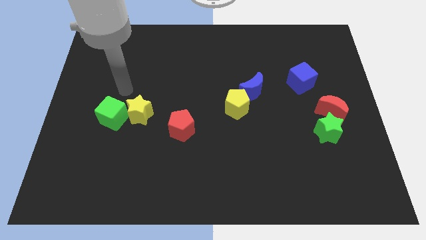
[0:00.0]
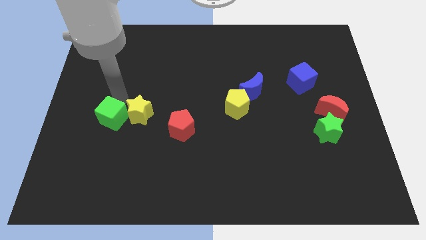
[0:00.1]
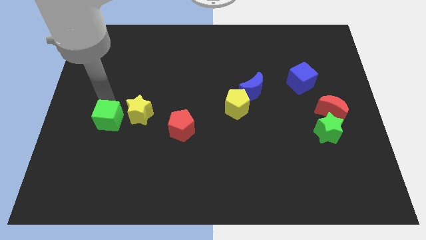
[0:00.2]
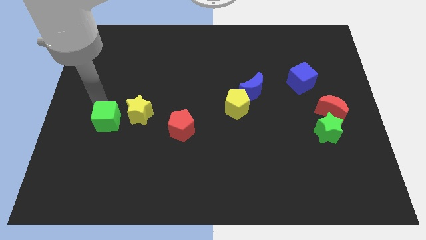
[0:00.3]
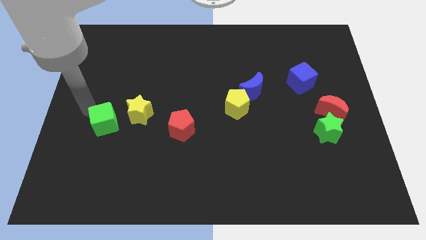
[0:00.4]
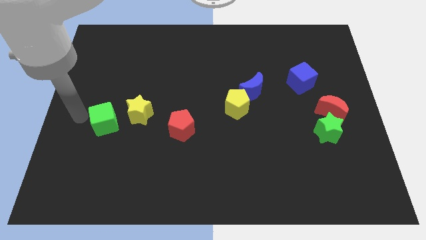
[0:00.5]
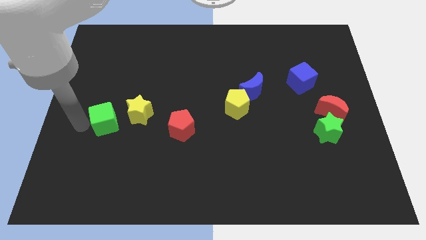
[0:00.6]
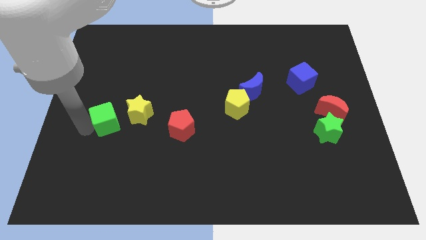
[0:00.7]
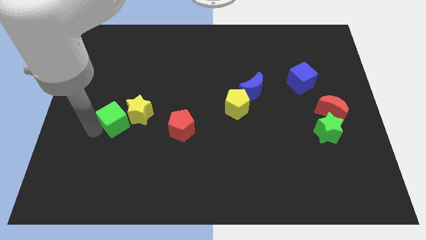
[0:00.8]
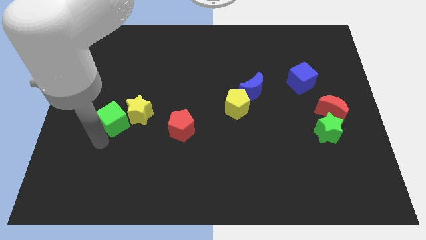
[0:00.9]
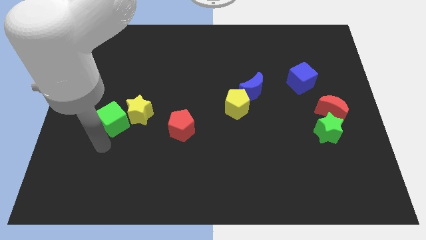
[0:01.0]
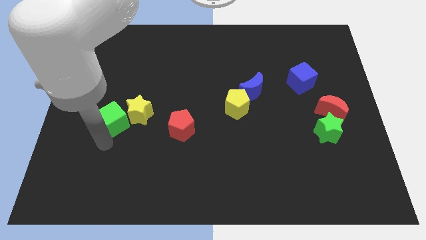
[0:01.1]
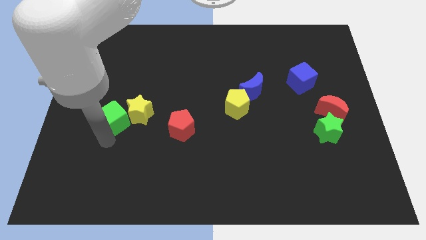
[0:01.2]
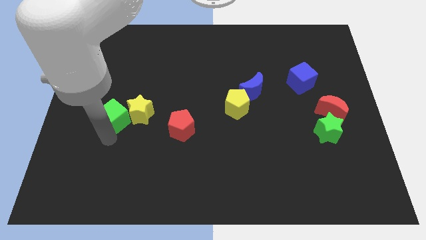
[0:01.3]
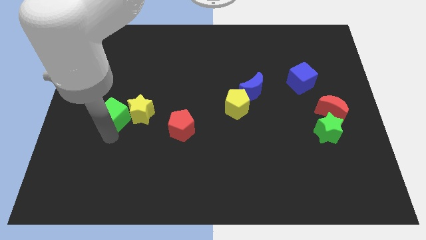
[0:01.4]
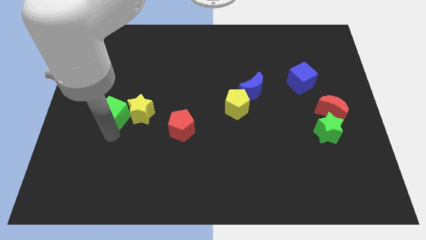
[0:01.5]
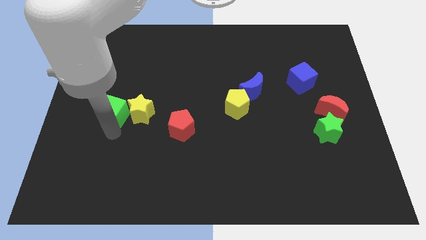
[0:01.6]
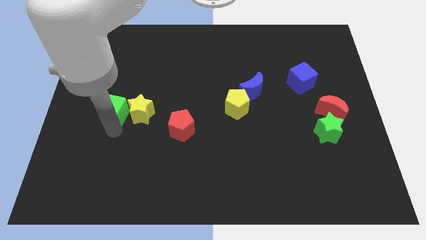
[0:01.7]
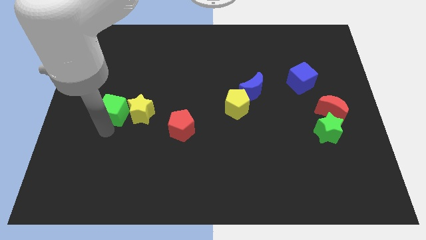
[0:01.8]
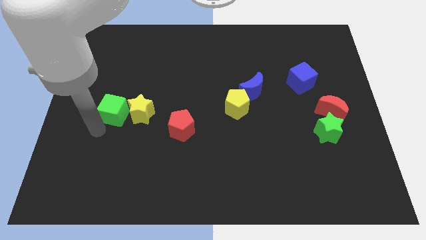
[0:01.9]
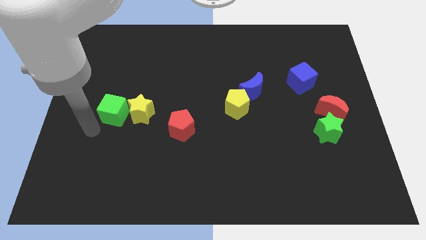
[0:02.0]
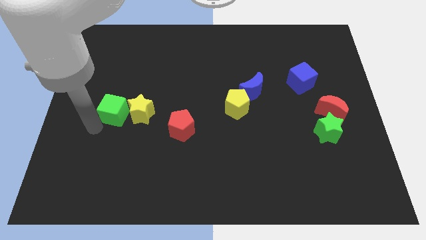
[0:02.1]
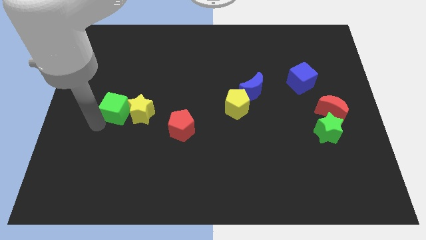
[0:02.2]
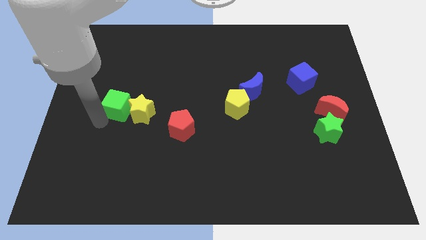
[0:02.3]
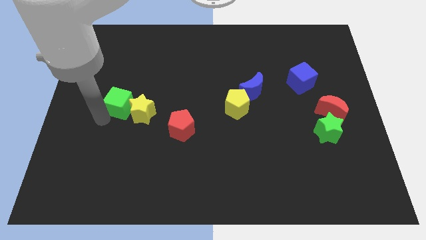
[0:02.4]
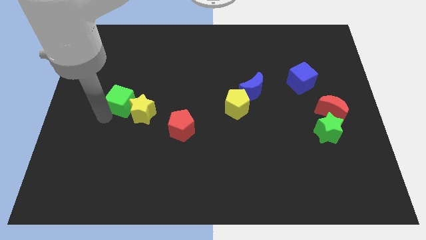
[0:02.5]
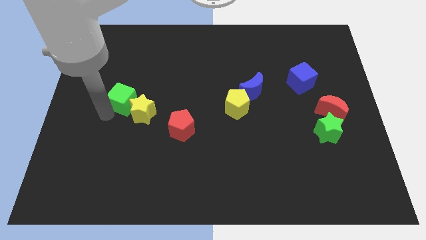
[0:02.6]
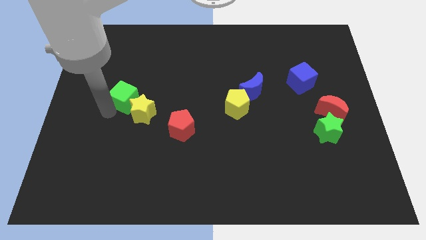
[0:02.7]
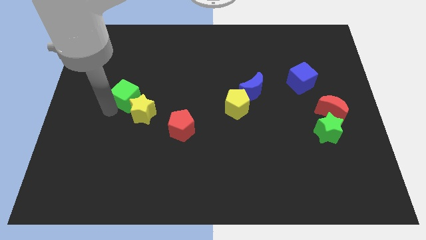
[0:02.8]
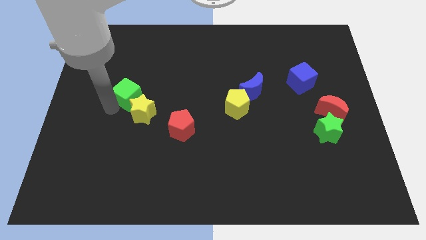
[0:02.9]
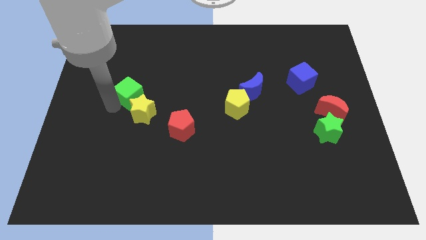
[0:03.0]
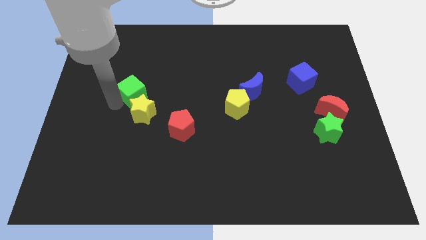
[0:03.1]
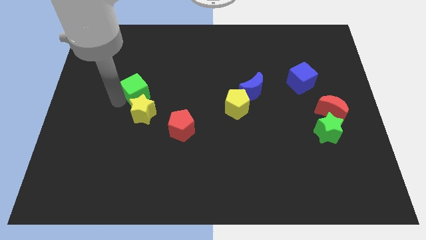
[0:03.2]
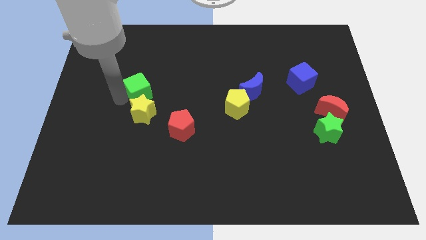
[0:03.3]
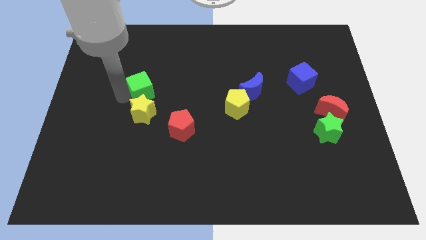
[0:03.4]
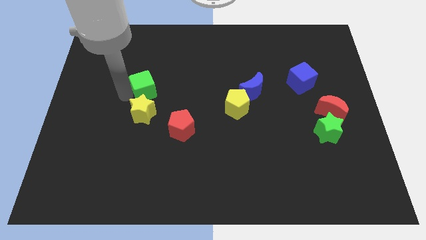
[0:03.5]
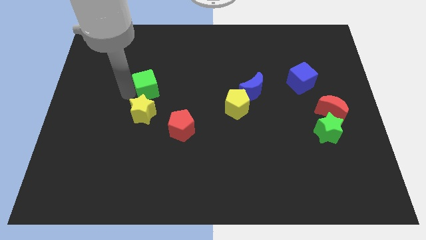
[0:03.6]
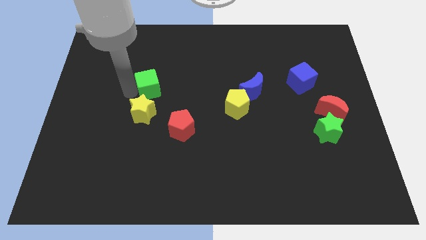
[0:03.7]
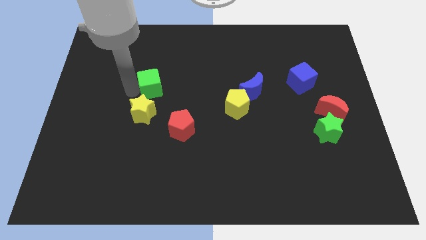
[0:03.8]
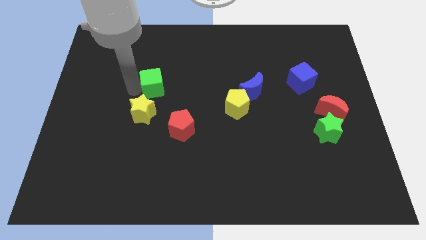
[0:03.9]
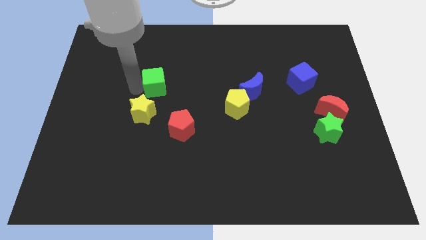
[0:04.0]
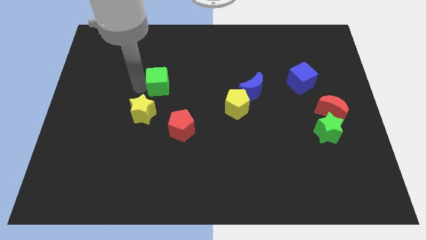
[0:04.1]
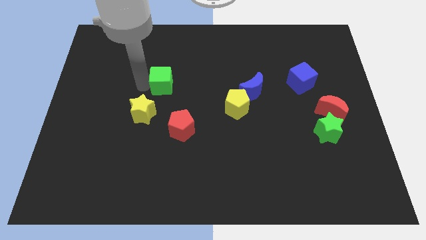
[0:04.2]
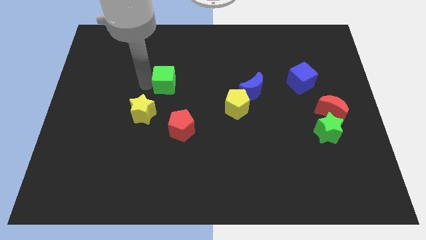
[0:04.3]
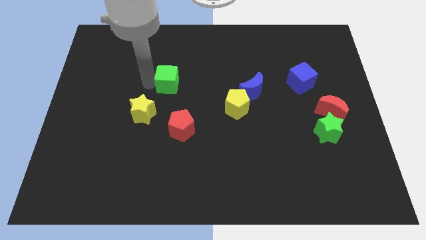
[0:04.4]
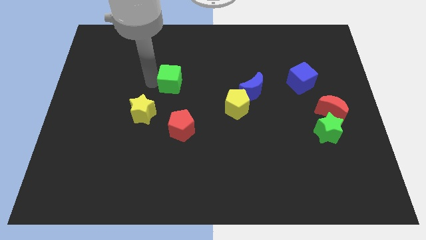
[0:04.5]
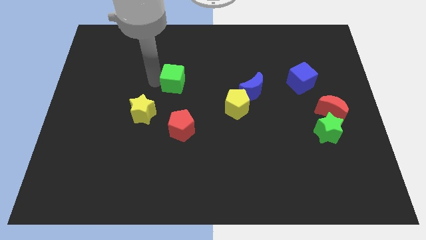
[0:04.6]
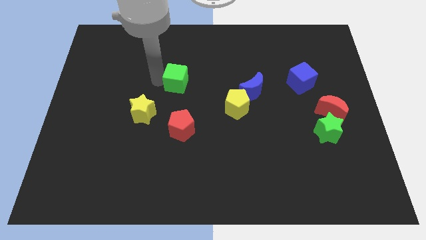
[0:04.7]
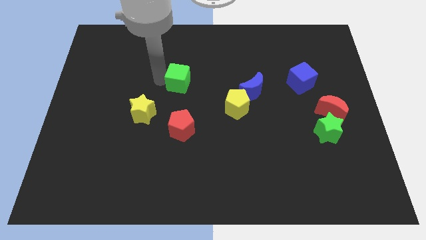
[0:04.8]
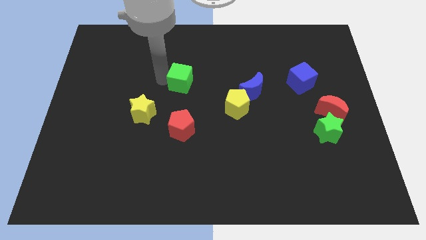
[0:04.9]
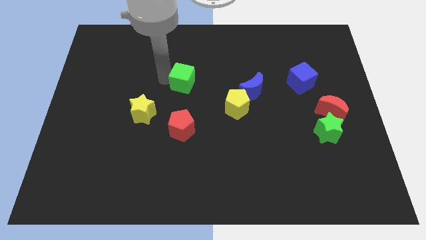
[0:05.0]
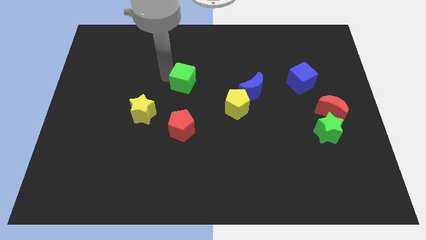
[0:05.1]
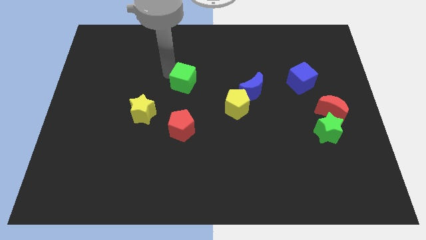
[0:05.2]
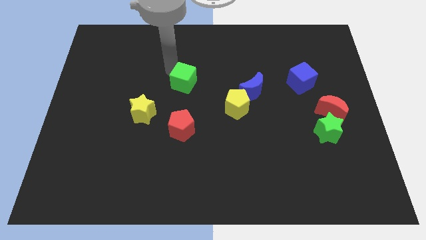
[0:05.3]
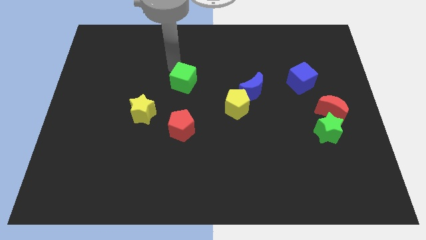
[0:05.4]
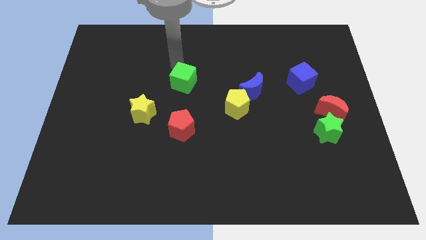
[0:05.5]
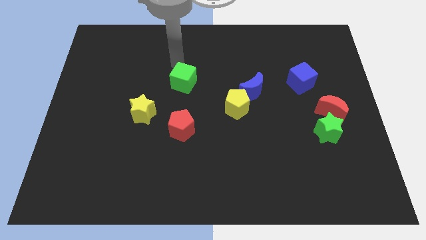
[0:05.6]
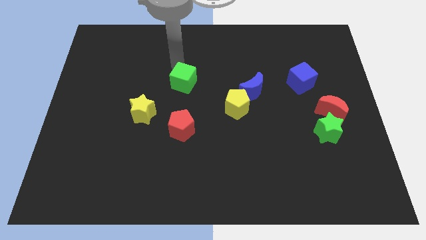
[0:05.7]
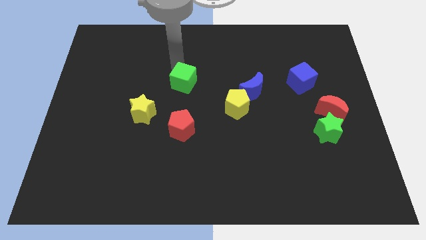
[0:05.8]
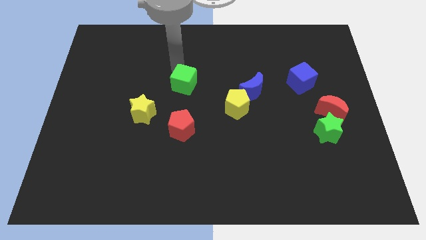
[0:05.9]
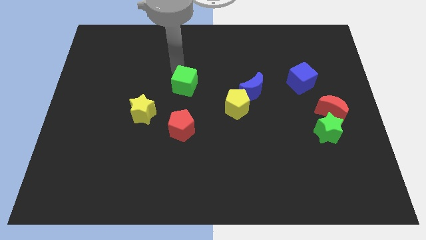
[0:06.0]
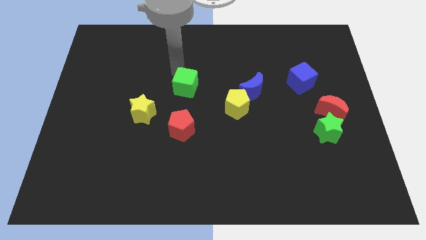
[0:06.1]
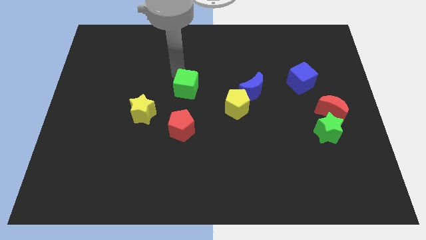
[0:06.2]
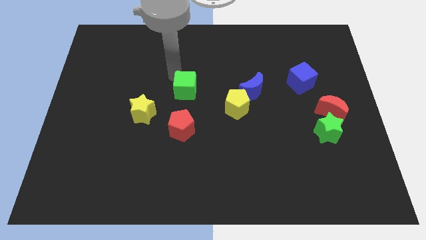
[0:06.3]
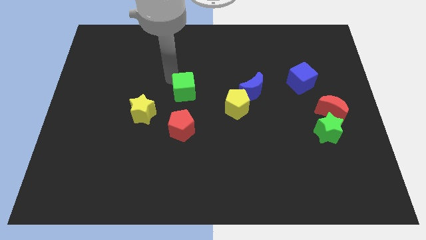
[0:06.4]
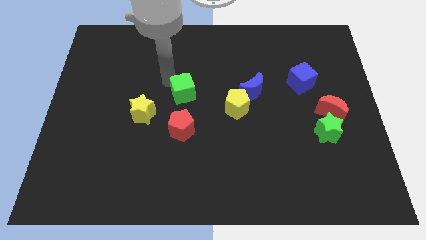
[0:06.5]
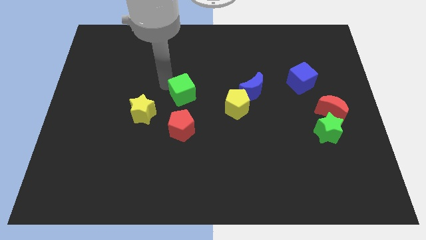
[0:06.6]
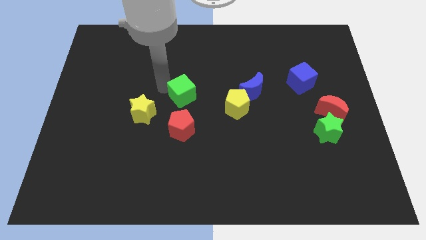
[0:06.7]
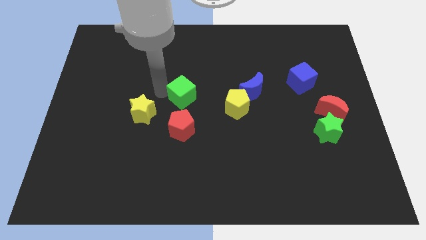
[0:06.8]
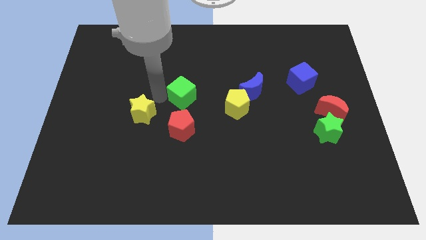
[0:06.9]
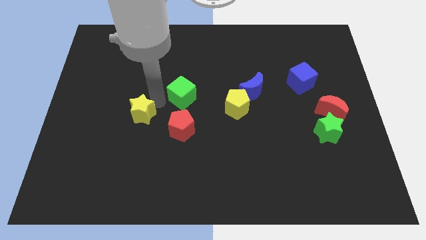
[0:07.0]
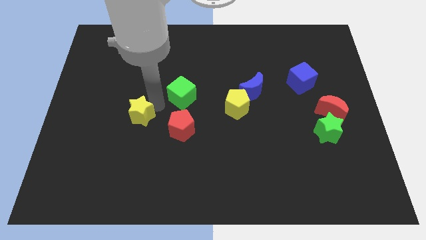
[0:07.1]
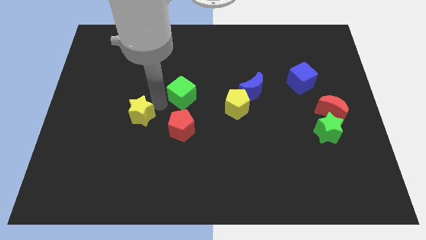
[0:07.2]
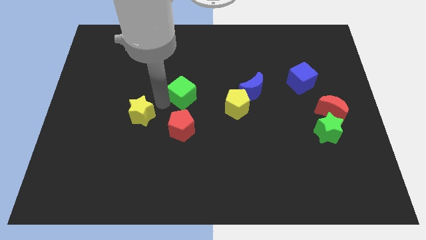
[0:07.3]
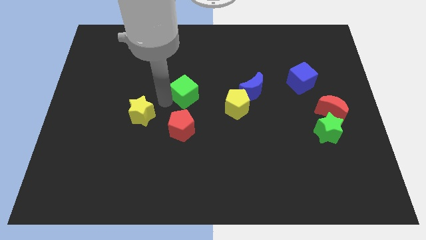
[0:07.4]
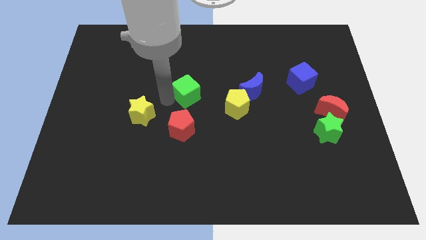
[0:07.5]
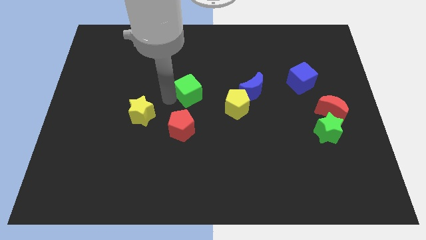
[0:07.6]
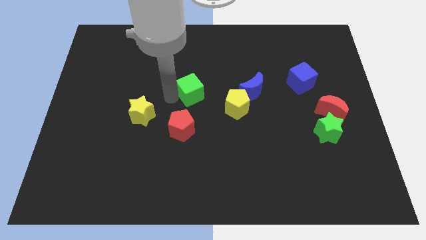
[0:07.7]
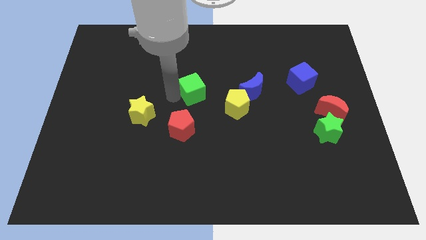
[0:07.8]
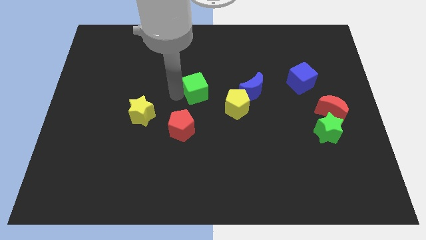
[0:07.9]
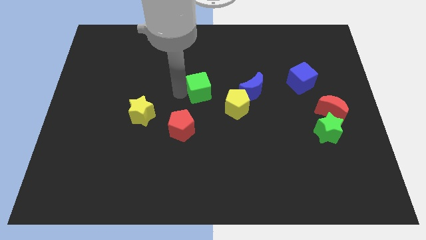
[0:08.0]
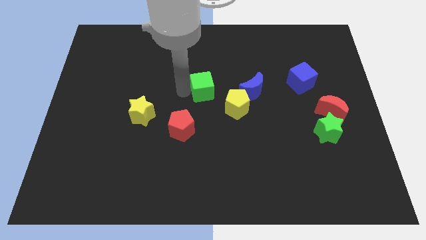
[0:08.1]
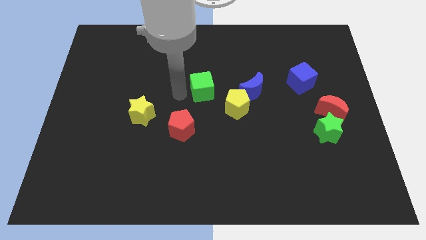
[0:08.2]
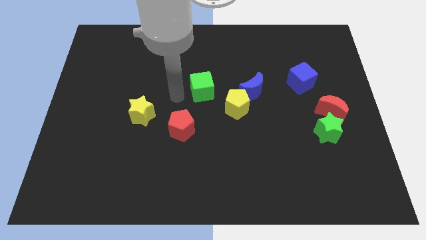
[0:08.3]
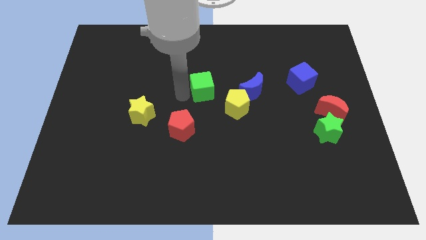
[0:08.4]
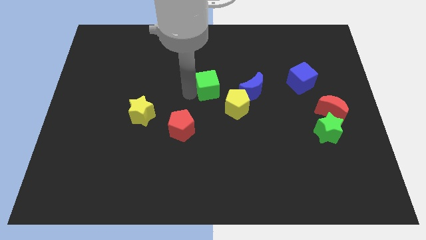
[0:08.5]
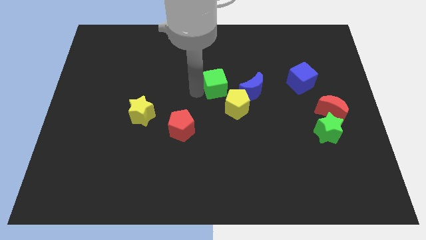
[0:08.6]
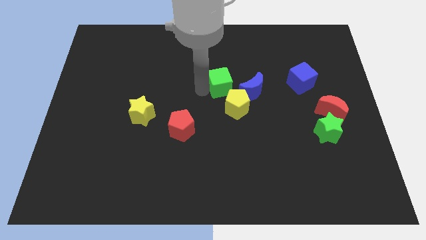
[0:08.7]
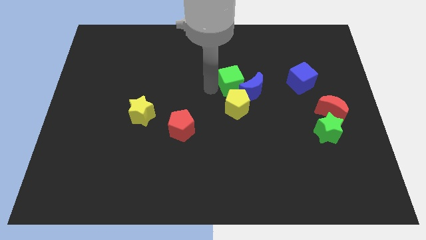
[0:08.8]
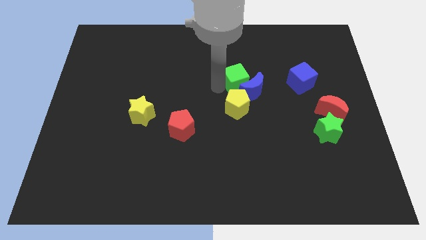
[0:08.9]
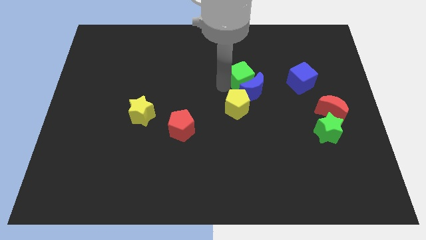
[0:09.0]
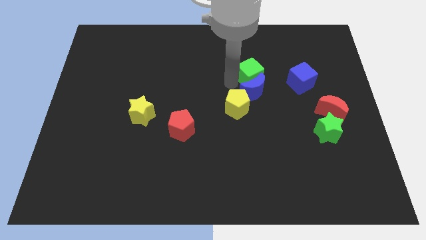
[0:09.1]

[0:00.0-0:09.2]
slide the green cube diagonally up and to the right of the blue moon
